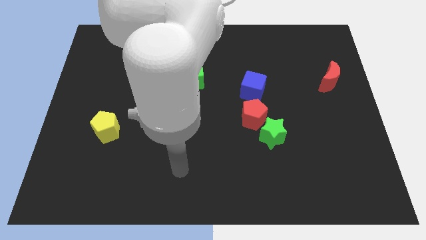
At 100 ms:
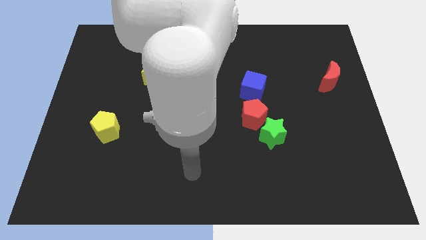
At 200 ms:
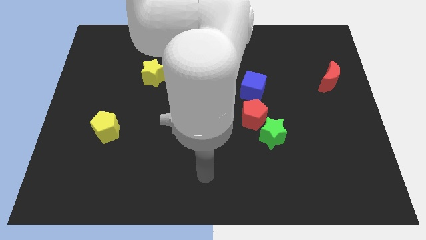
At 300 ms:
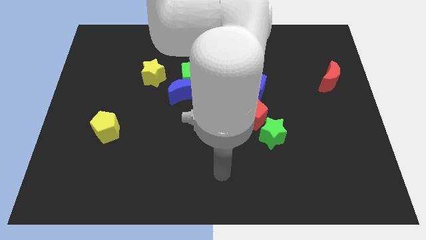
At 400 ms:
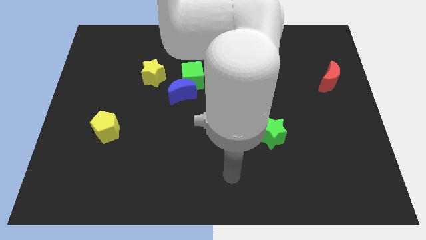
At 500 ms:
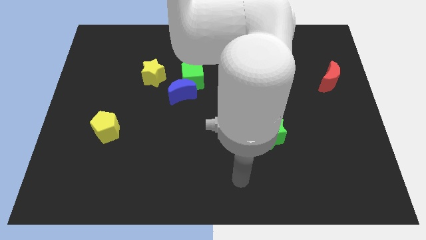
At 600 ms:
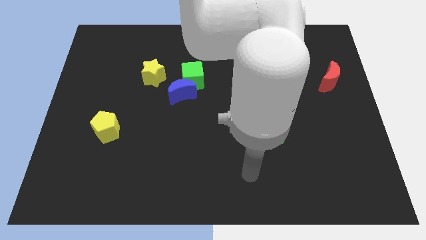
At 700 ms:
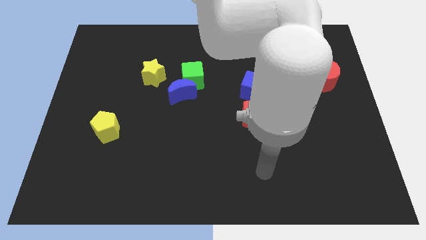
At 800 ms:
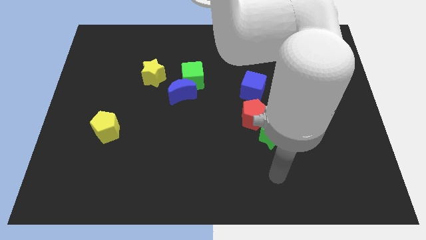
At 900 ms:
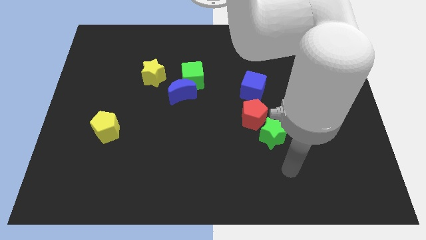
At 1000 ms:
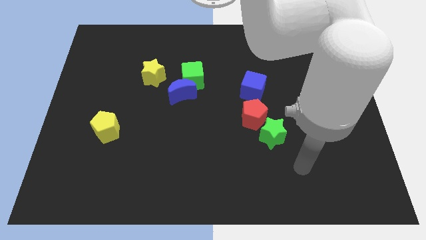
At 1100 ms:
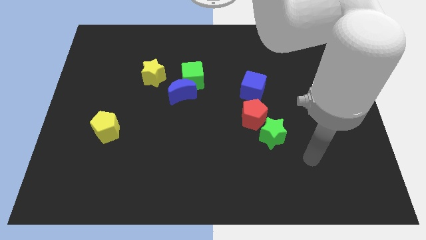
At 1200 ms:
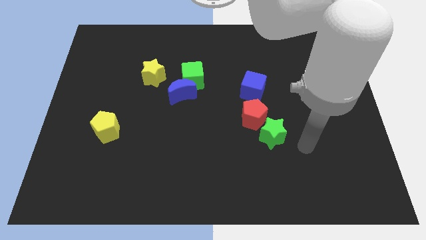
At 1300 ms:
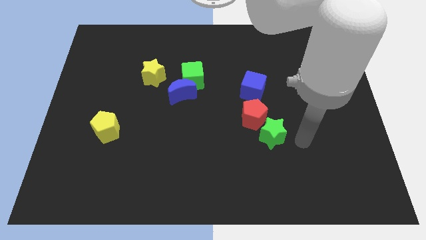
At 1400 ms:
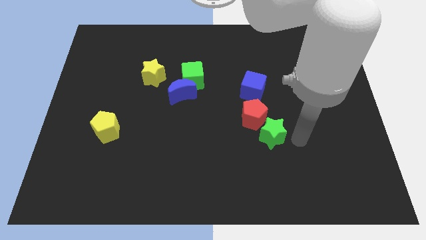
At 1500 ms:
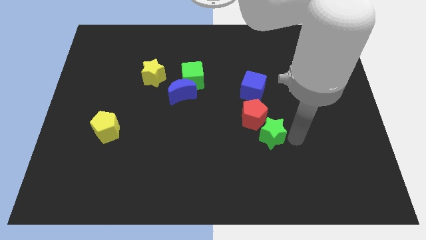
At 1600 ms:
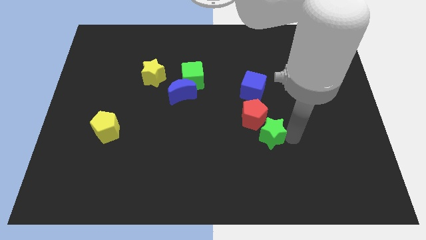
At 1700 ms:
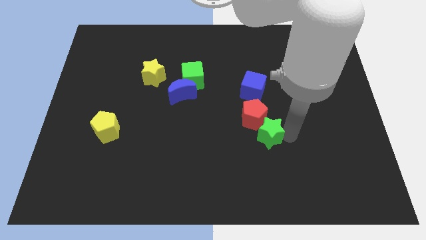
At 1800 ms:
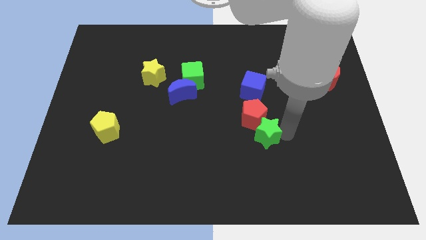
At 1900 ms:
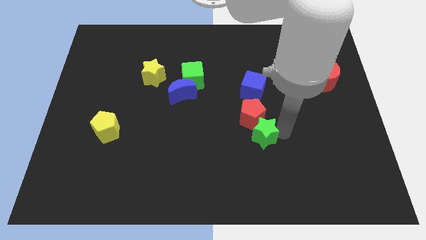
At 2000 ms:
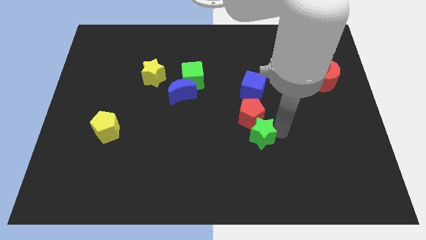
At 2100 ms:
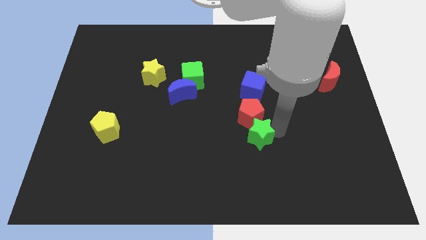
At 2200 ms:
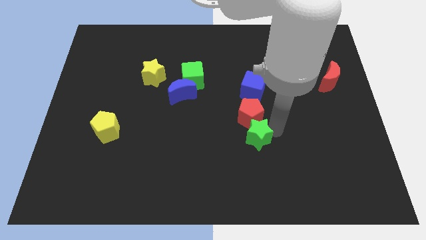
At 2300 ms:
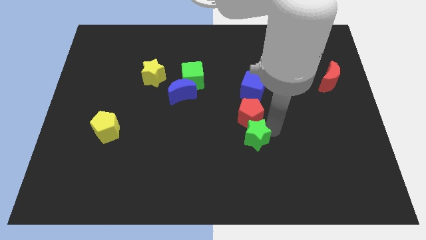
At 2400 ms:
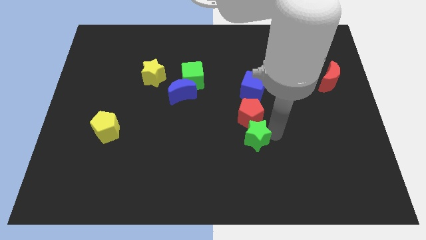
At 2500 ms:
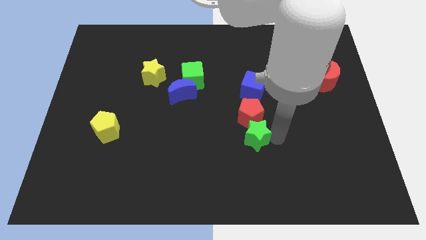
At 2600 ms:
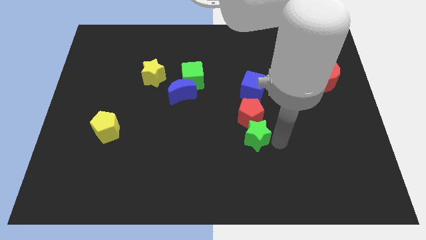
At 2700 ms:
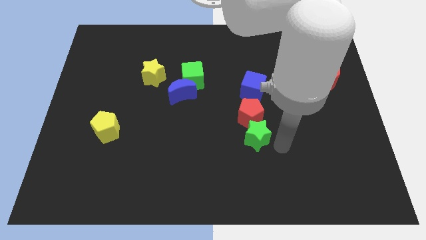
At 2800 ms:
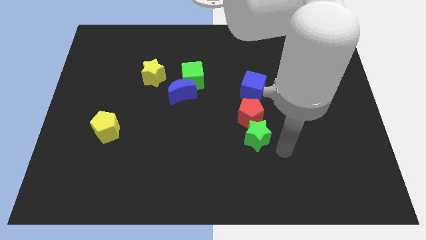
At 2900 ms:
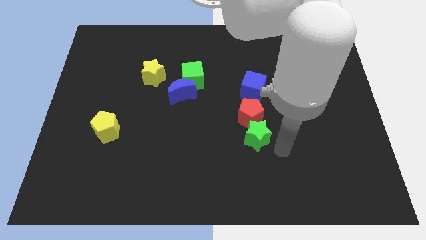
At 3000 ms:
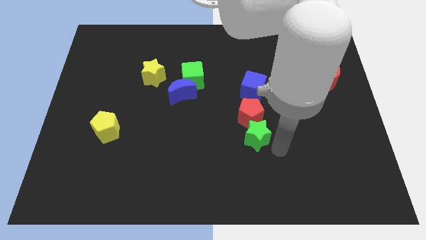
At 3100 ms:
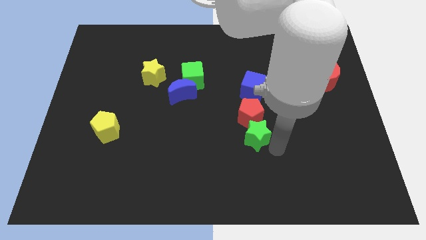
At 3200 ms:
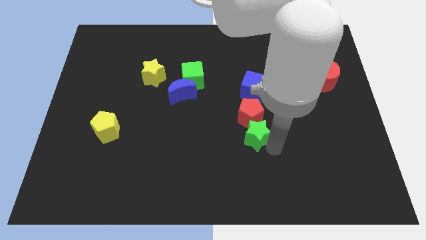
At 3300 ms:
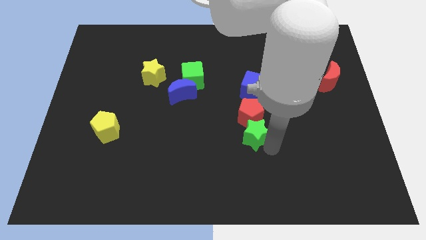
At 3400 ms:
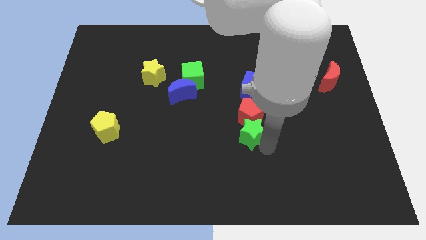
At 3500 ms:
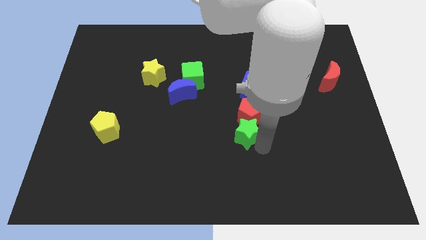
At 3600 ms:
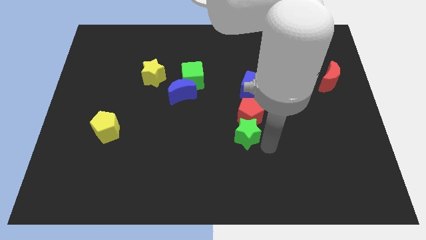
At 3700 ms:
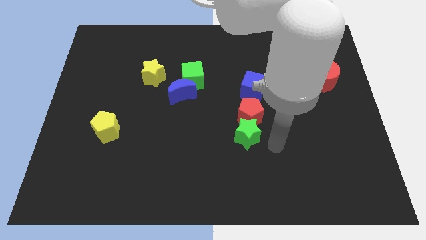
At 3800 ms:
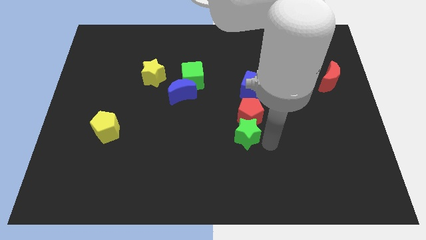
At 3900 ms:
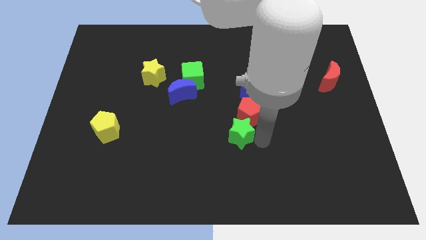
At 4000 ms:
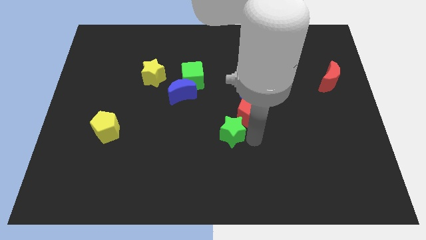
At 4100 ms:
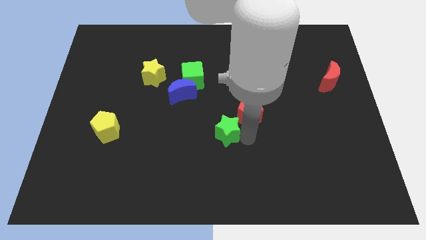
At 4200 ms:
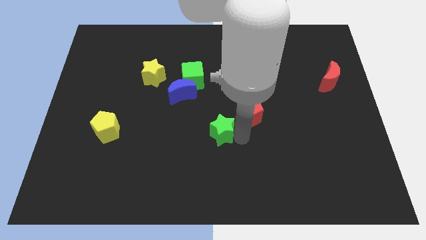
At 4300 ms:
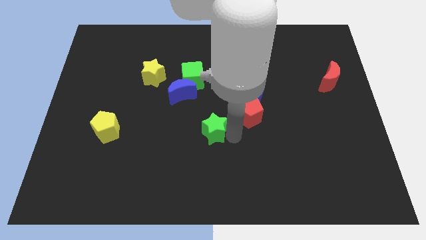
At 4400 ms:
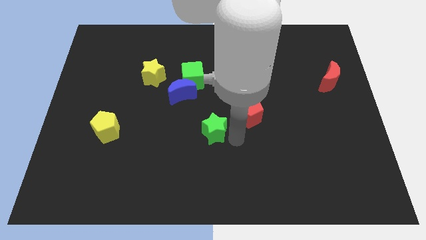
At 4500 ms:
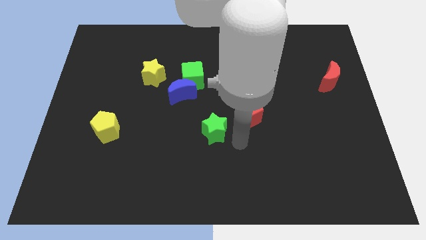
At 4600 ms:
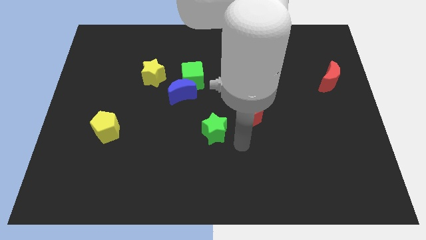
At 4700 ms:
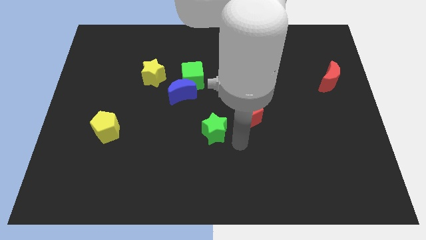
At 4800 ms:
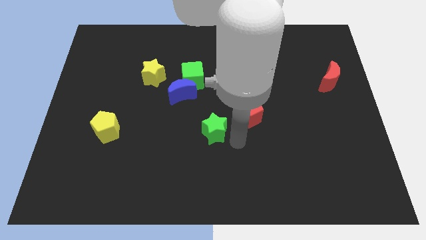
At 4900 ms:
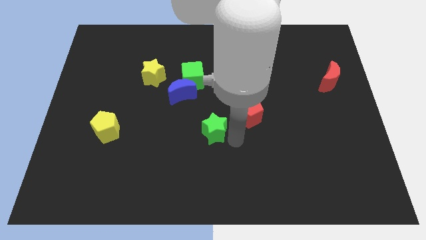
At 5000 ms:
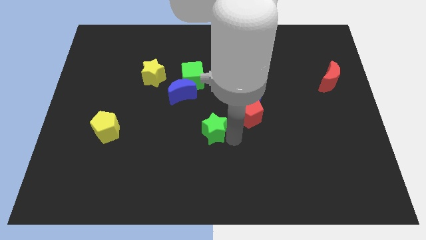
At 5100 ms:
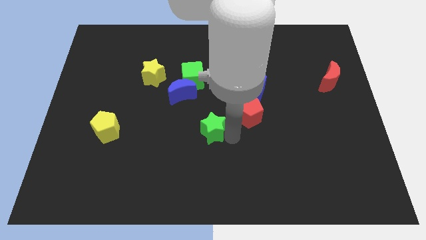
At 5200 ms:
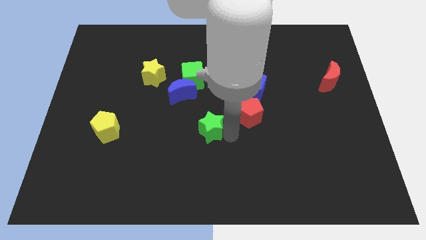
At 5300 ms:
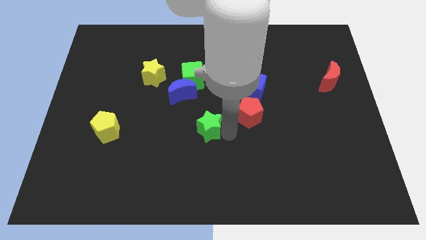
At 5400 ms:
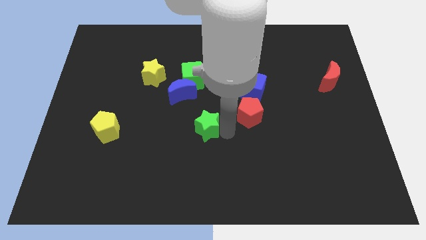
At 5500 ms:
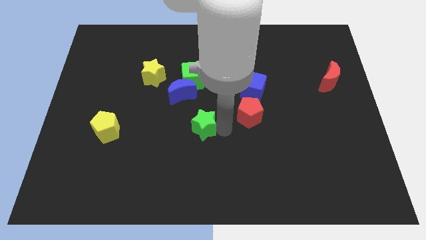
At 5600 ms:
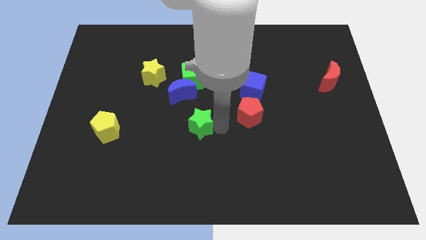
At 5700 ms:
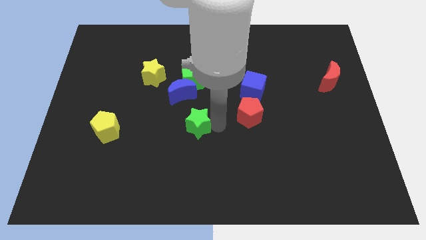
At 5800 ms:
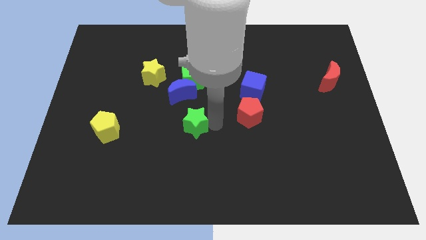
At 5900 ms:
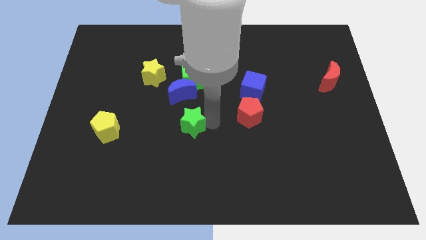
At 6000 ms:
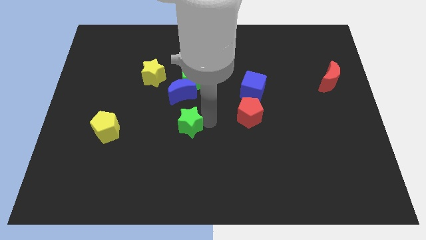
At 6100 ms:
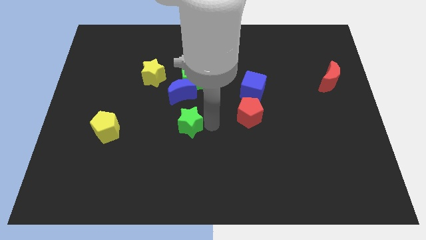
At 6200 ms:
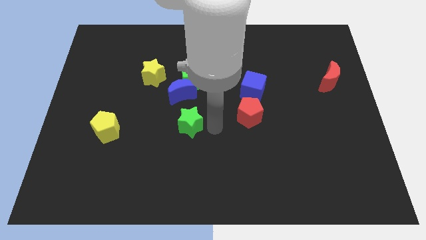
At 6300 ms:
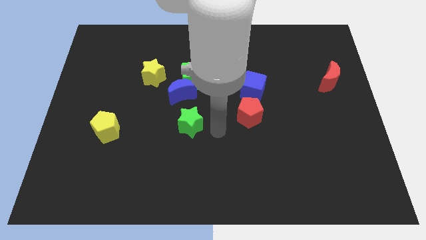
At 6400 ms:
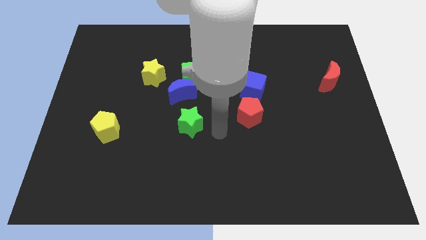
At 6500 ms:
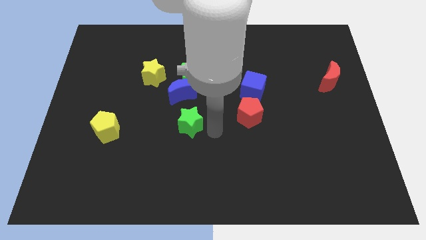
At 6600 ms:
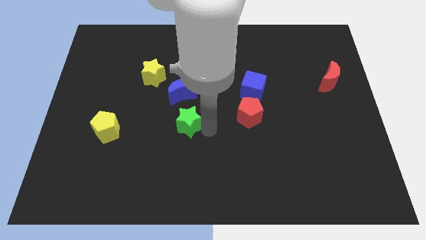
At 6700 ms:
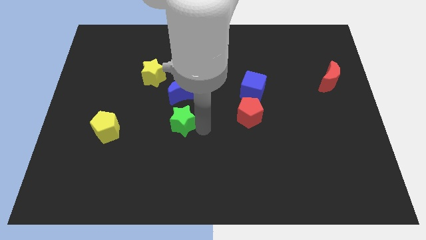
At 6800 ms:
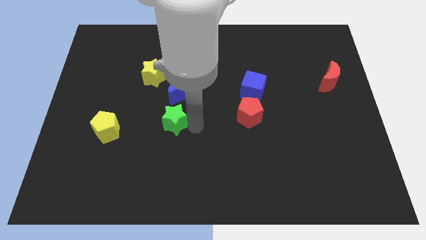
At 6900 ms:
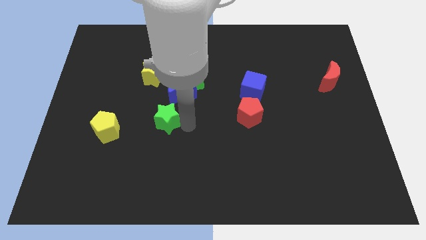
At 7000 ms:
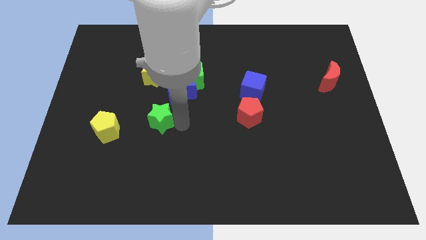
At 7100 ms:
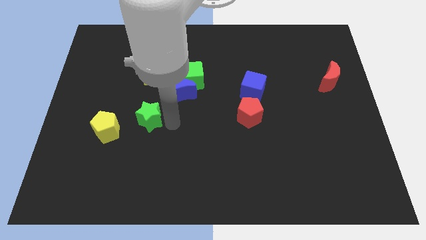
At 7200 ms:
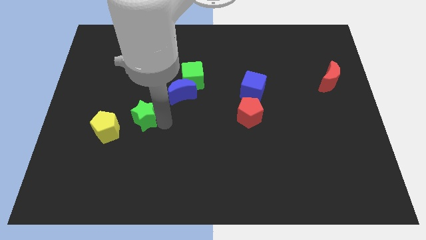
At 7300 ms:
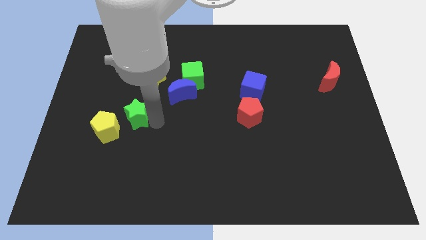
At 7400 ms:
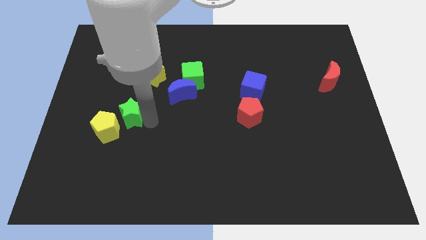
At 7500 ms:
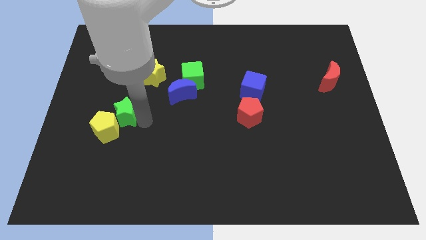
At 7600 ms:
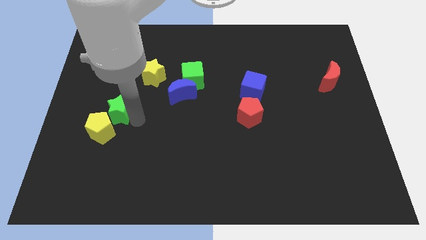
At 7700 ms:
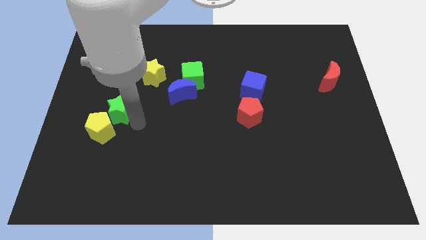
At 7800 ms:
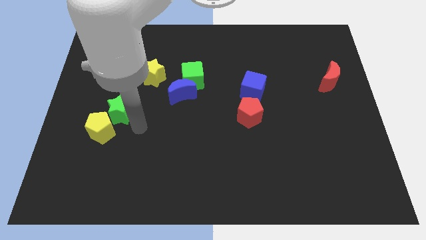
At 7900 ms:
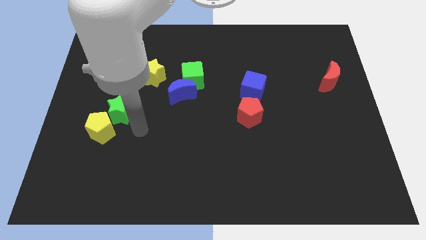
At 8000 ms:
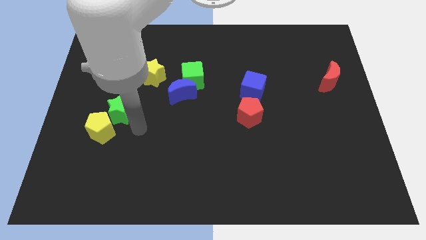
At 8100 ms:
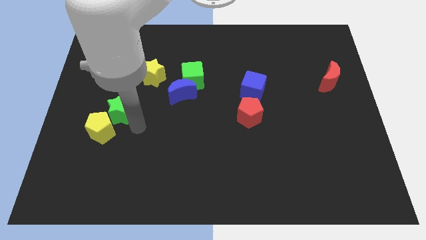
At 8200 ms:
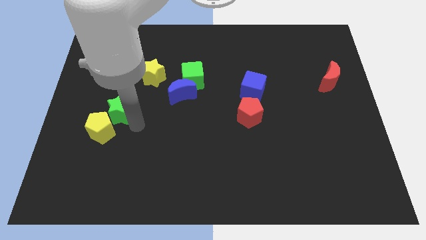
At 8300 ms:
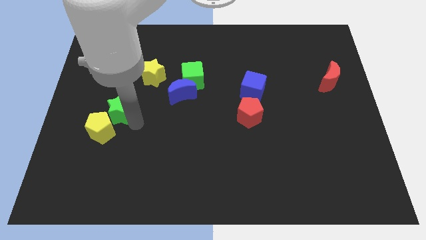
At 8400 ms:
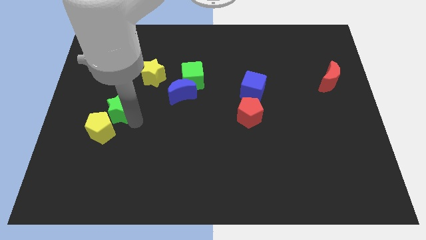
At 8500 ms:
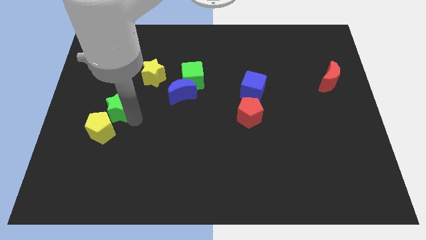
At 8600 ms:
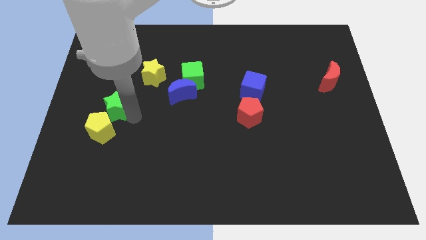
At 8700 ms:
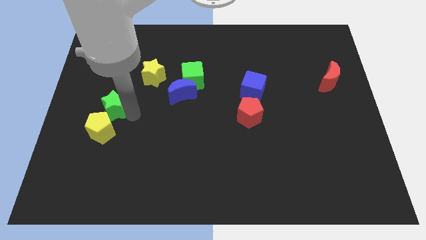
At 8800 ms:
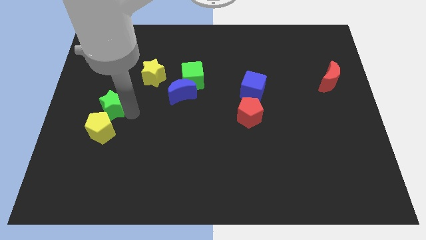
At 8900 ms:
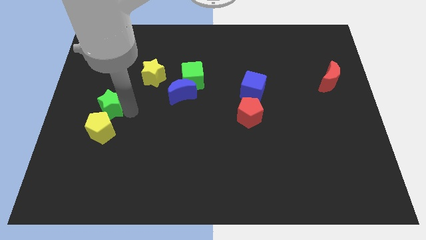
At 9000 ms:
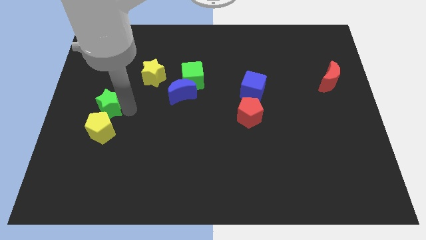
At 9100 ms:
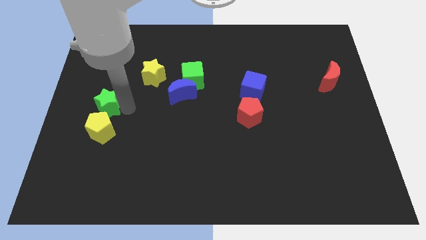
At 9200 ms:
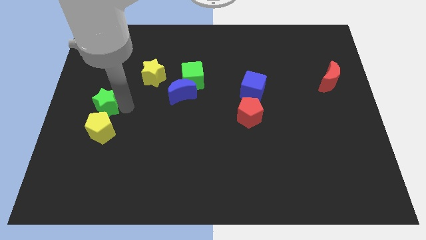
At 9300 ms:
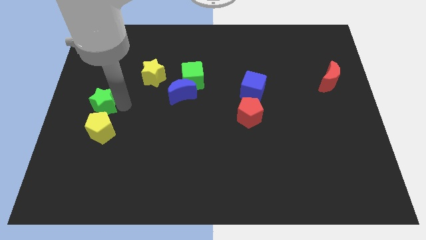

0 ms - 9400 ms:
slide the green star to the left side of the board
